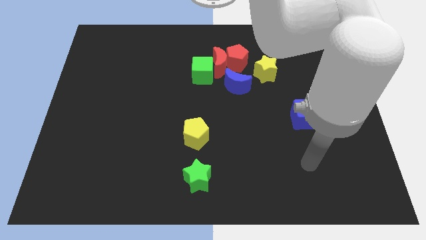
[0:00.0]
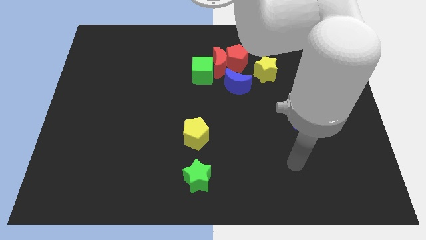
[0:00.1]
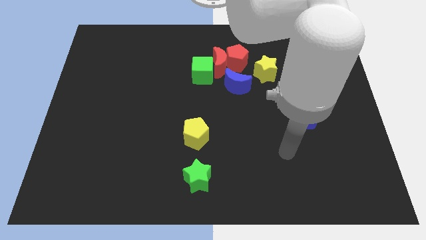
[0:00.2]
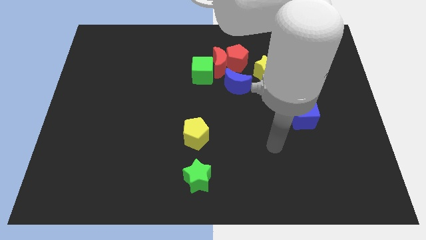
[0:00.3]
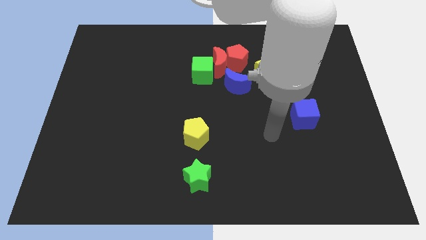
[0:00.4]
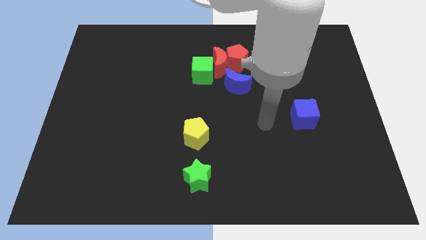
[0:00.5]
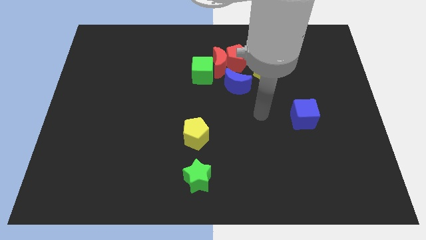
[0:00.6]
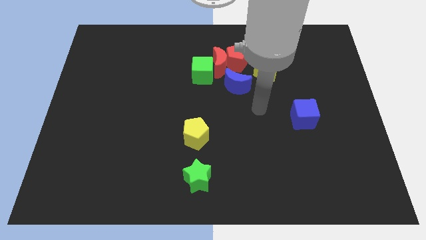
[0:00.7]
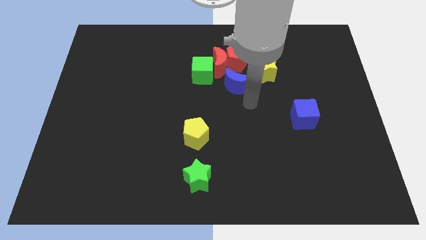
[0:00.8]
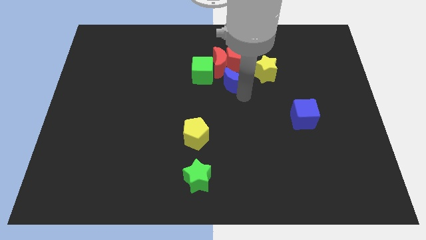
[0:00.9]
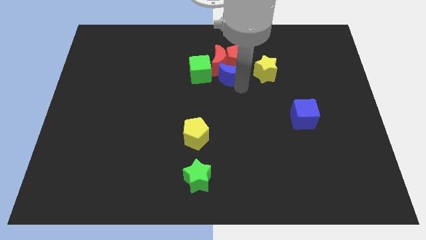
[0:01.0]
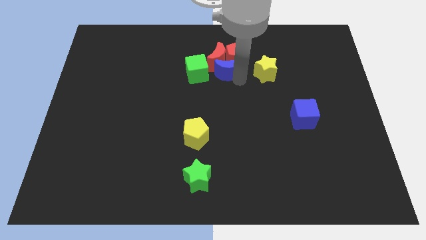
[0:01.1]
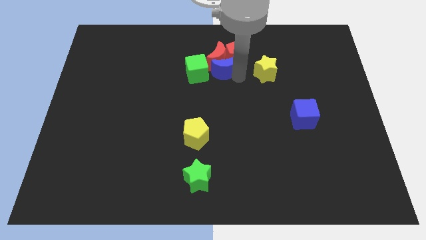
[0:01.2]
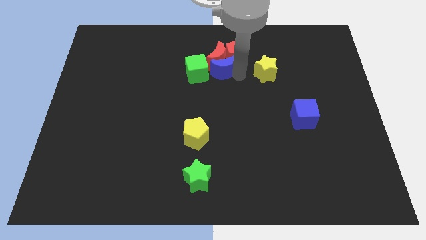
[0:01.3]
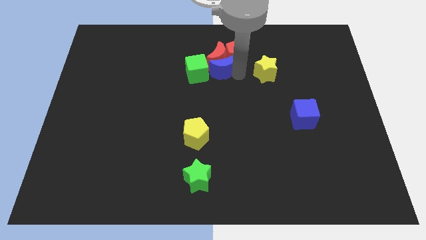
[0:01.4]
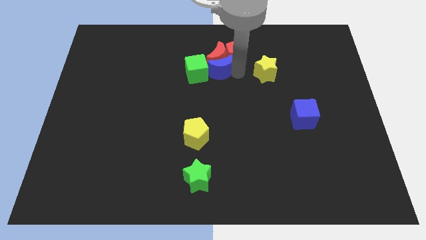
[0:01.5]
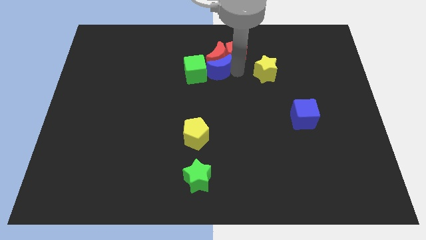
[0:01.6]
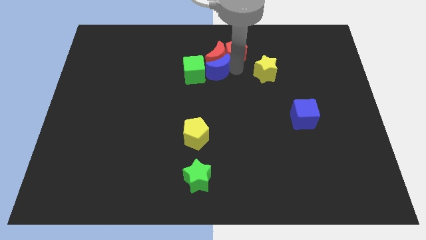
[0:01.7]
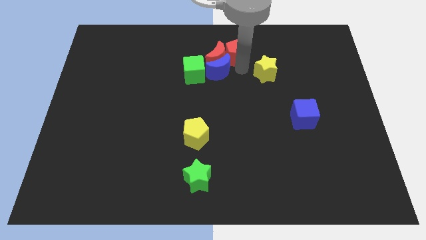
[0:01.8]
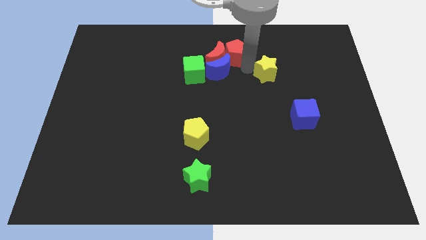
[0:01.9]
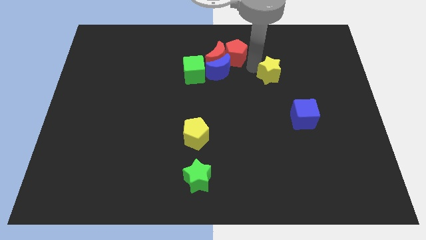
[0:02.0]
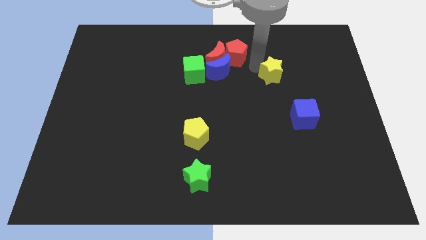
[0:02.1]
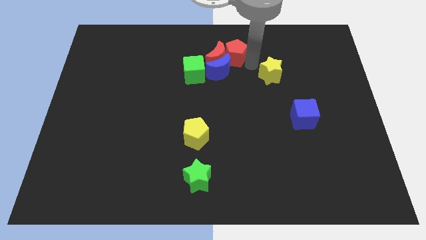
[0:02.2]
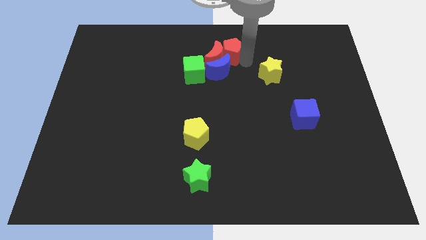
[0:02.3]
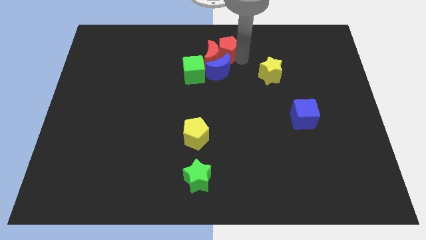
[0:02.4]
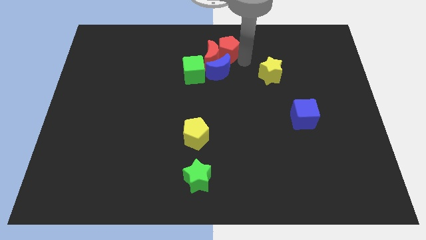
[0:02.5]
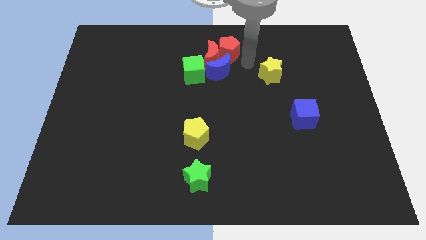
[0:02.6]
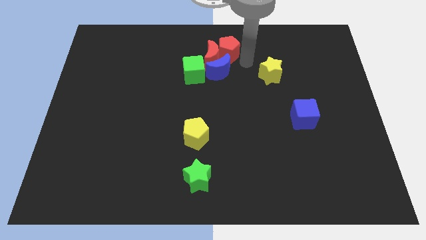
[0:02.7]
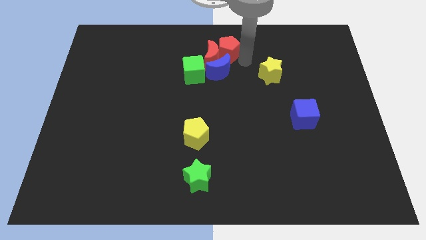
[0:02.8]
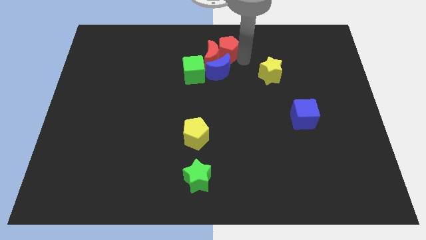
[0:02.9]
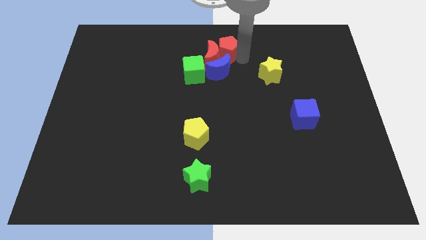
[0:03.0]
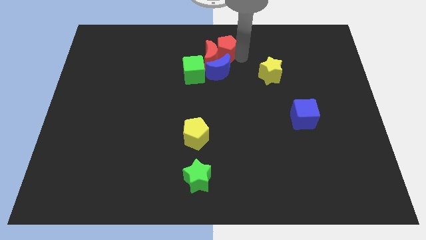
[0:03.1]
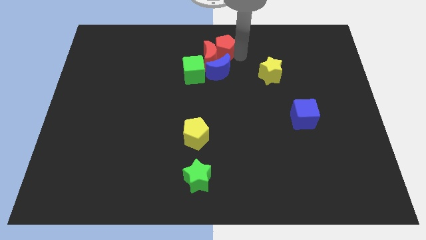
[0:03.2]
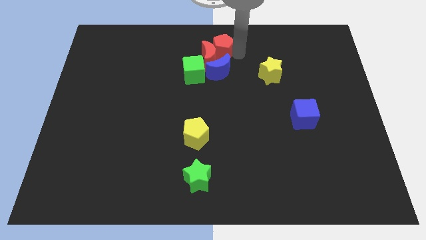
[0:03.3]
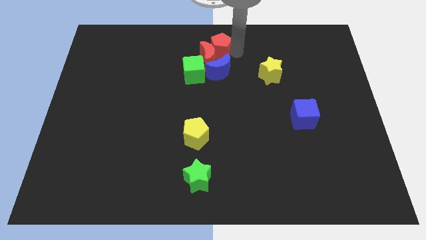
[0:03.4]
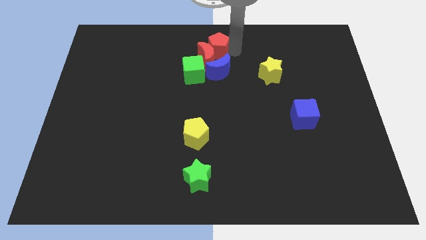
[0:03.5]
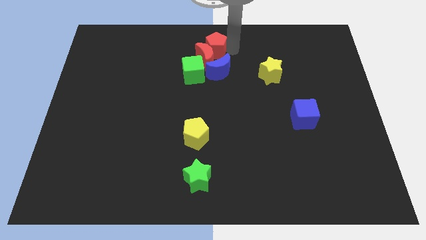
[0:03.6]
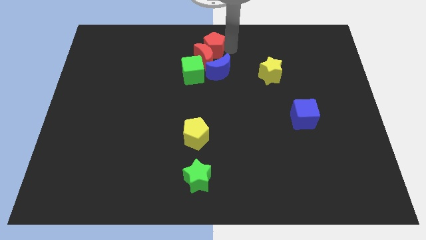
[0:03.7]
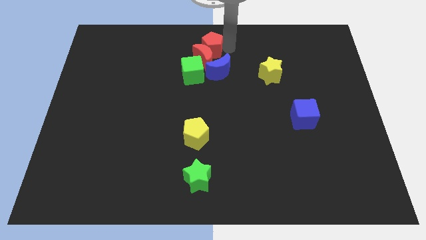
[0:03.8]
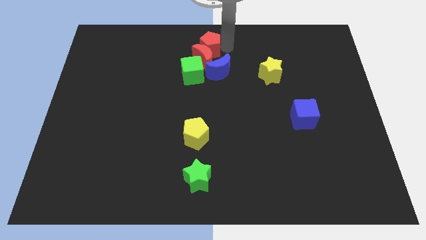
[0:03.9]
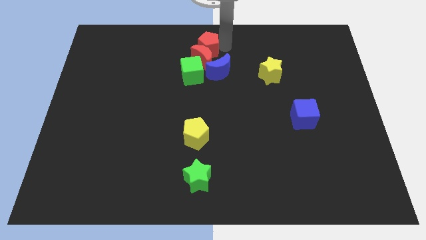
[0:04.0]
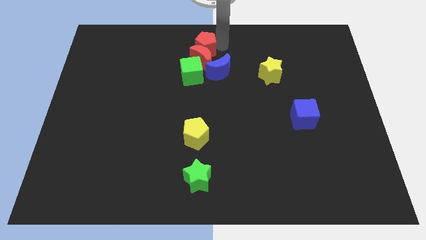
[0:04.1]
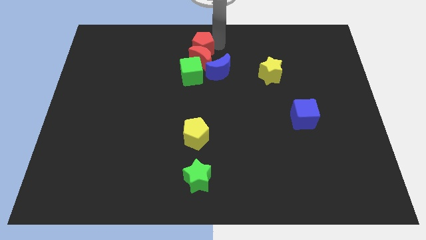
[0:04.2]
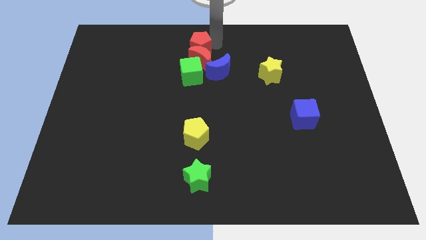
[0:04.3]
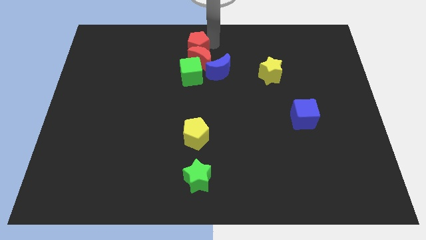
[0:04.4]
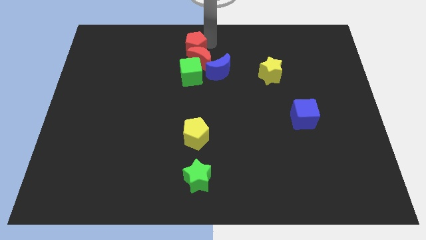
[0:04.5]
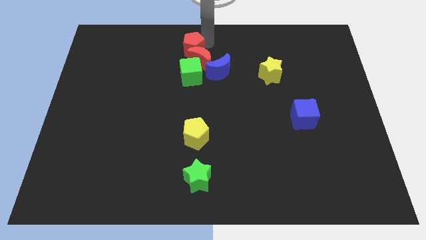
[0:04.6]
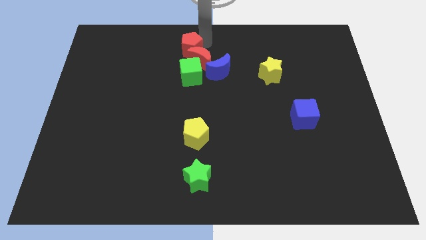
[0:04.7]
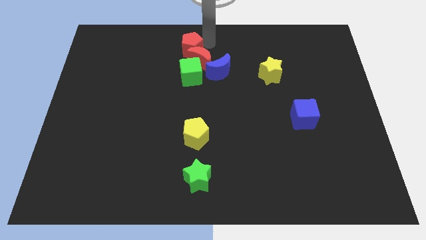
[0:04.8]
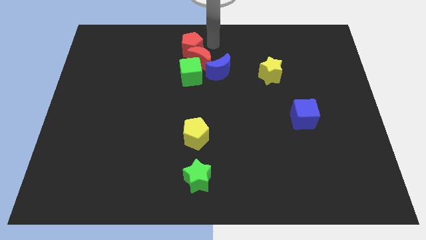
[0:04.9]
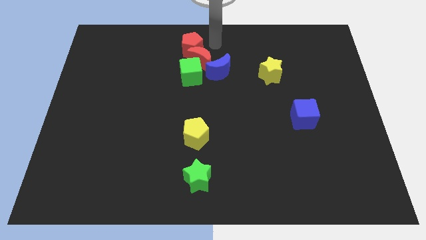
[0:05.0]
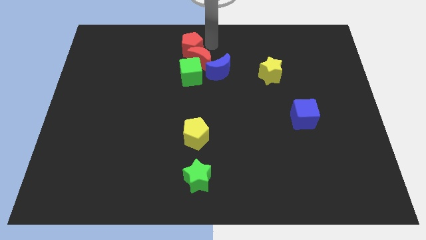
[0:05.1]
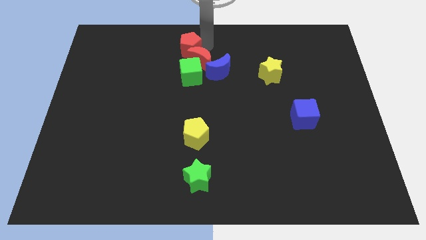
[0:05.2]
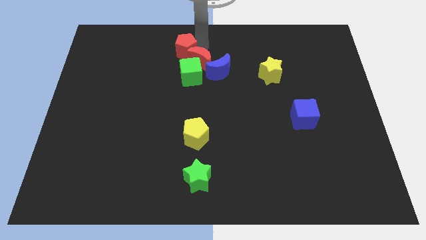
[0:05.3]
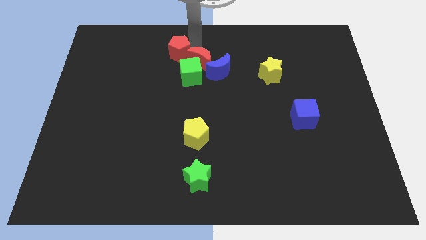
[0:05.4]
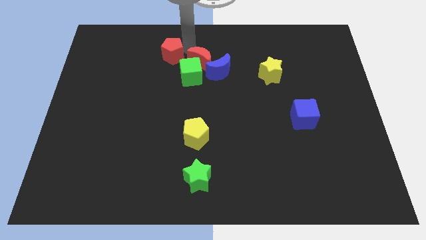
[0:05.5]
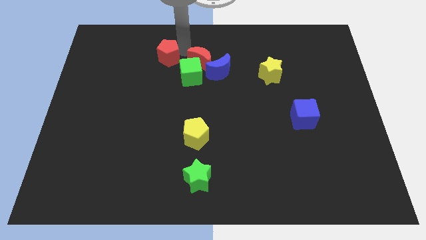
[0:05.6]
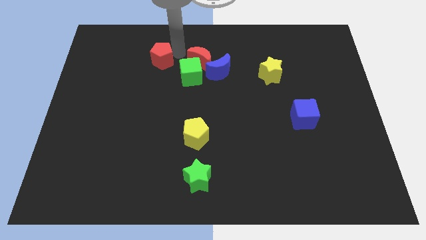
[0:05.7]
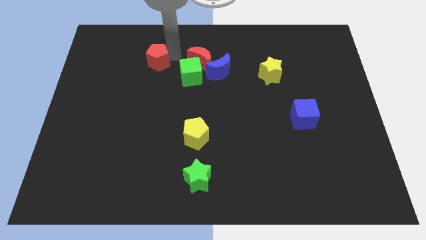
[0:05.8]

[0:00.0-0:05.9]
push the red pentagon left

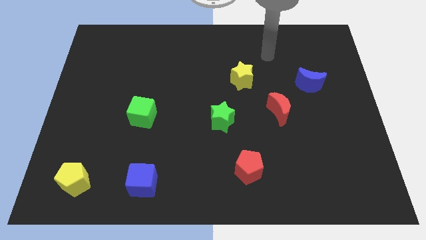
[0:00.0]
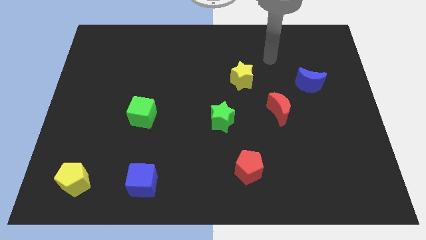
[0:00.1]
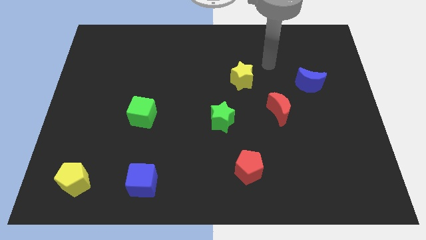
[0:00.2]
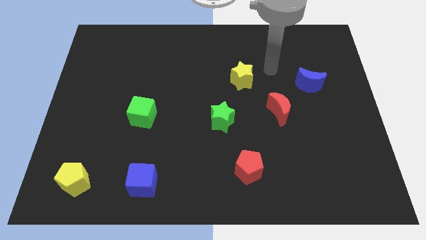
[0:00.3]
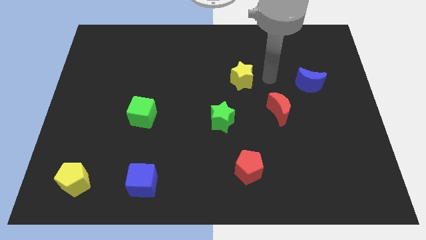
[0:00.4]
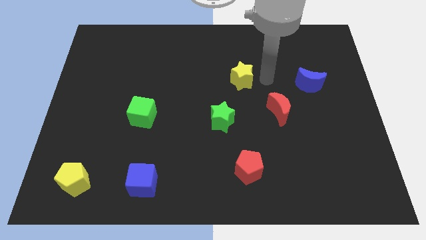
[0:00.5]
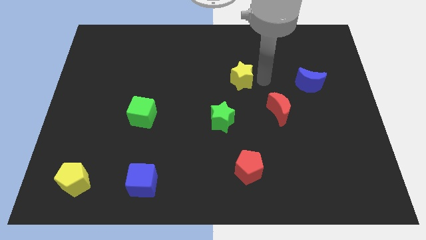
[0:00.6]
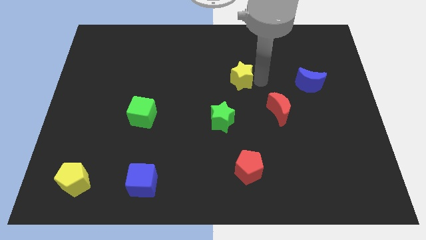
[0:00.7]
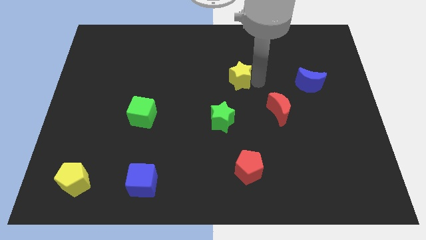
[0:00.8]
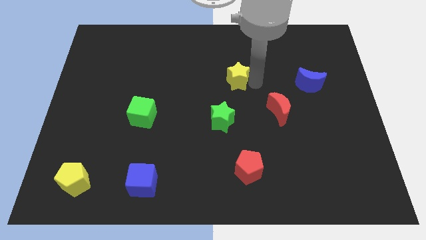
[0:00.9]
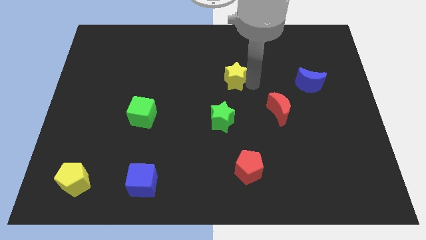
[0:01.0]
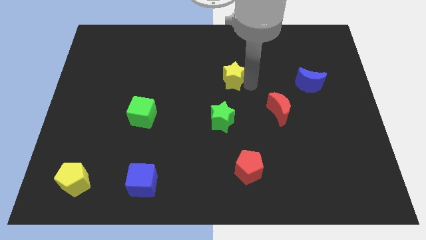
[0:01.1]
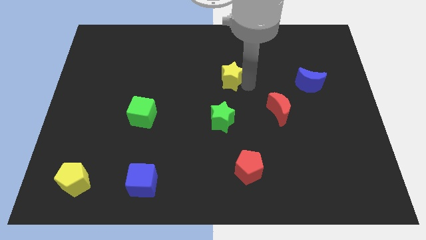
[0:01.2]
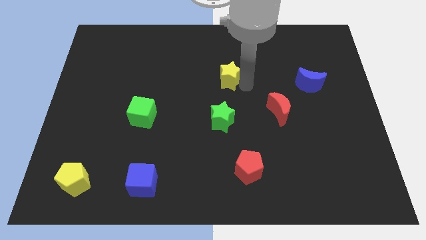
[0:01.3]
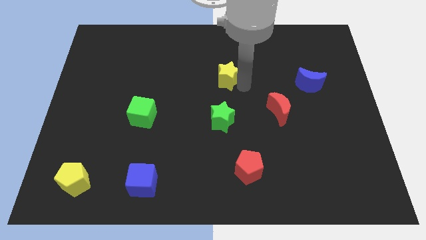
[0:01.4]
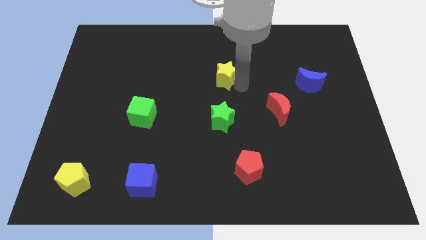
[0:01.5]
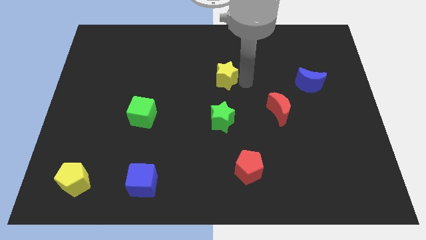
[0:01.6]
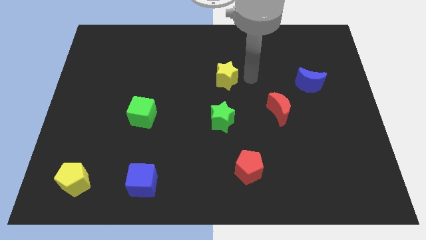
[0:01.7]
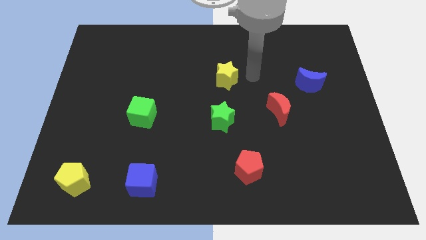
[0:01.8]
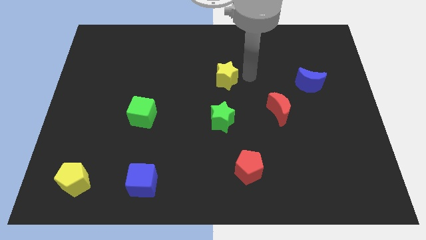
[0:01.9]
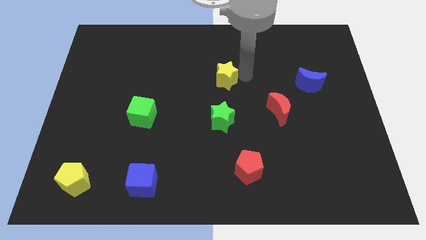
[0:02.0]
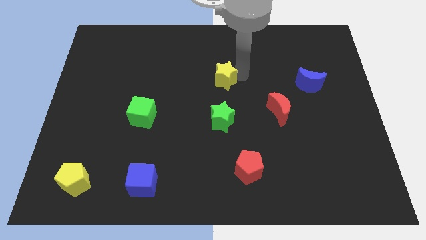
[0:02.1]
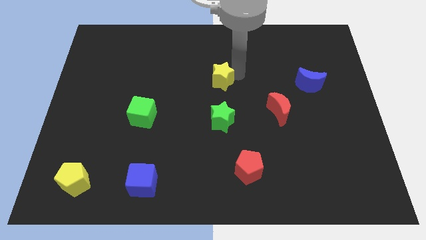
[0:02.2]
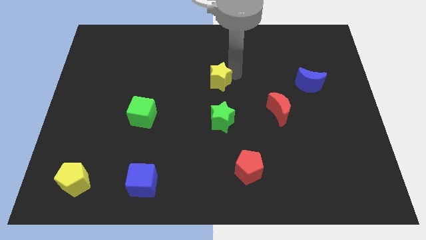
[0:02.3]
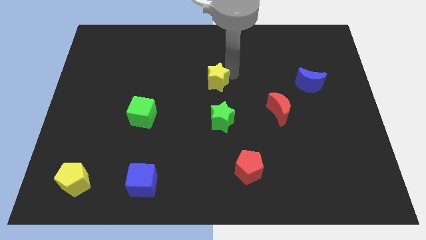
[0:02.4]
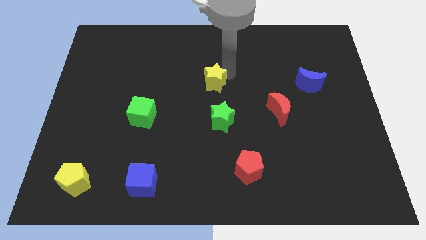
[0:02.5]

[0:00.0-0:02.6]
slightly push the yellow star left
